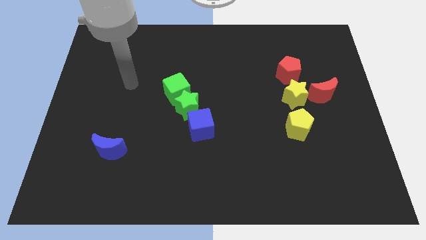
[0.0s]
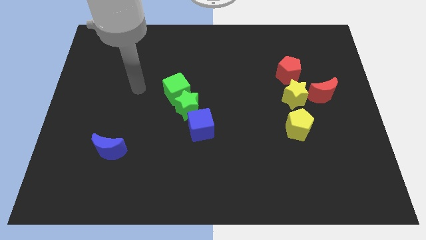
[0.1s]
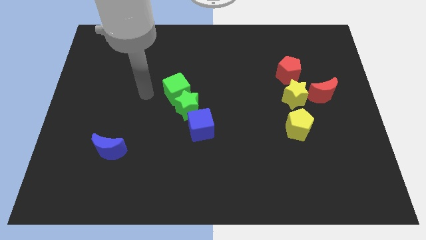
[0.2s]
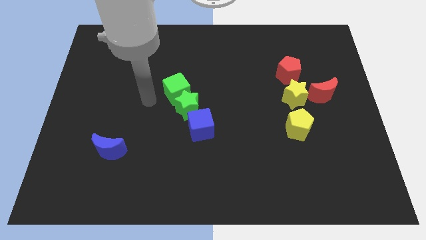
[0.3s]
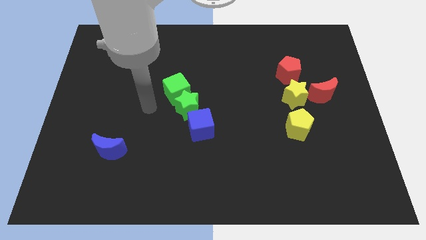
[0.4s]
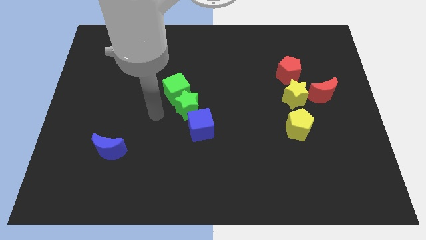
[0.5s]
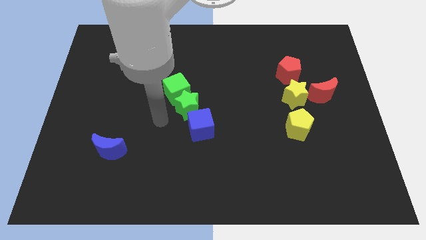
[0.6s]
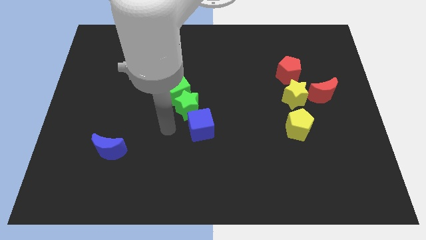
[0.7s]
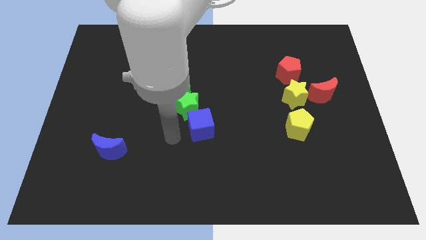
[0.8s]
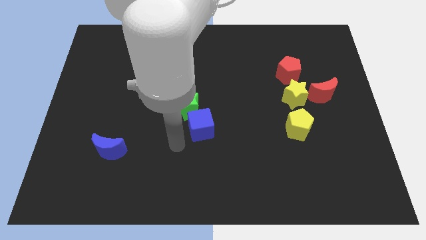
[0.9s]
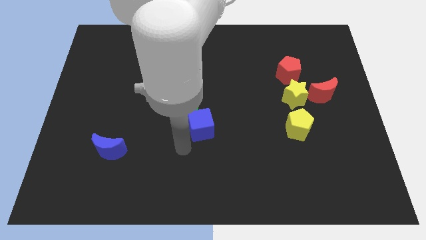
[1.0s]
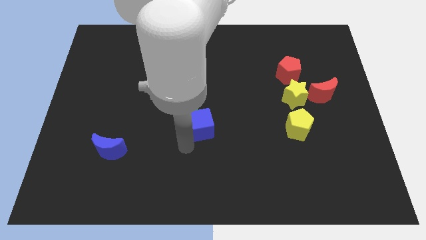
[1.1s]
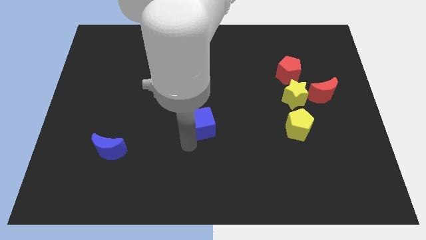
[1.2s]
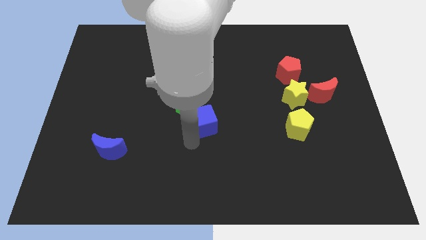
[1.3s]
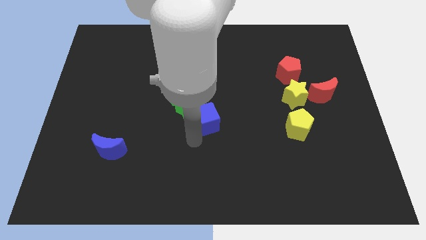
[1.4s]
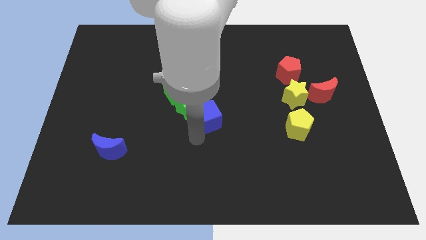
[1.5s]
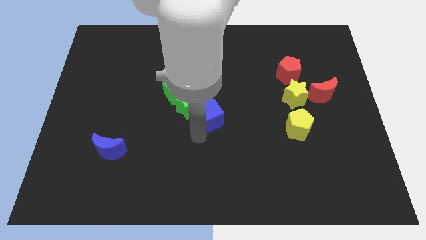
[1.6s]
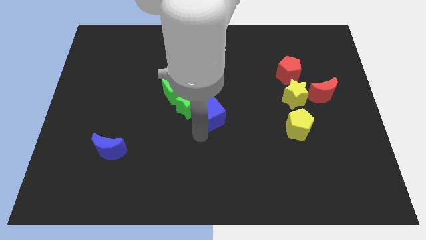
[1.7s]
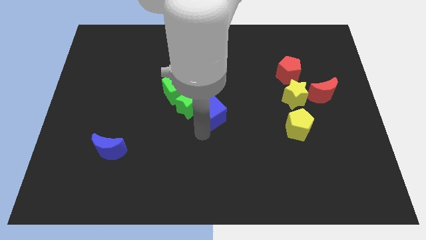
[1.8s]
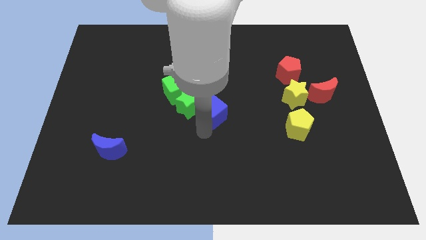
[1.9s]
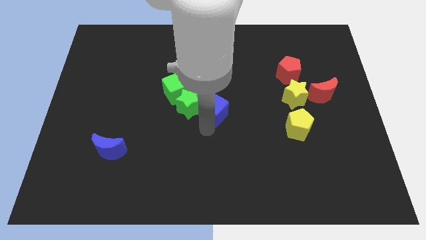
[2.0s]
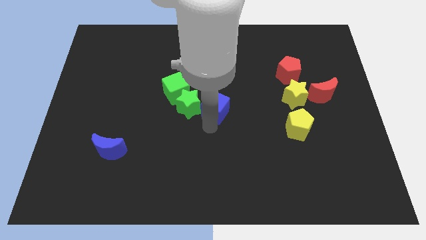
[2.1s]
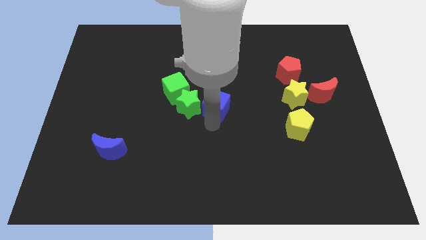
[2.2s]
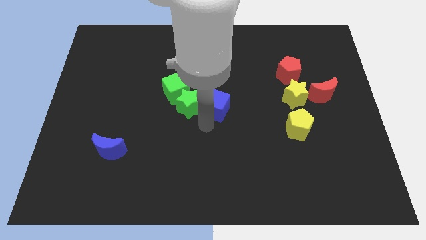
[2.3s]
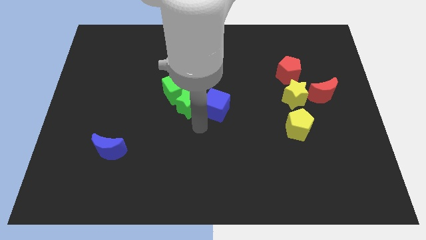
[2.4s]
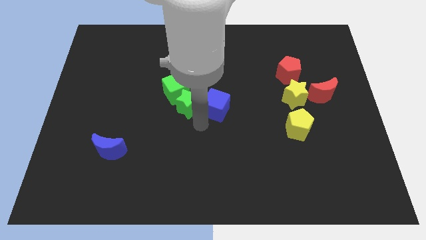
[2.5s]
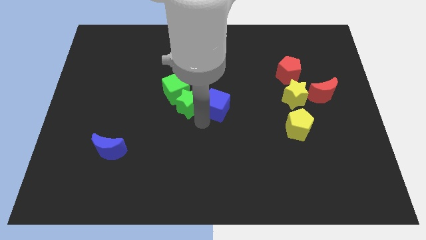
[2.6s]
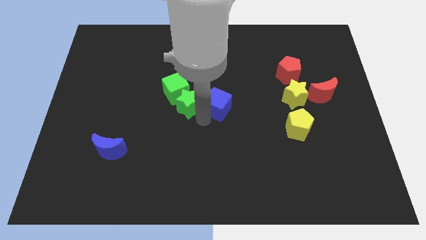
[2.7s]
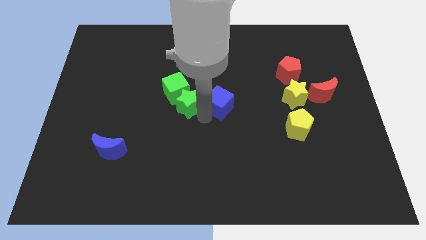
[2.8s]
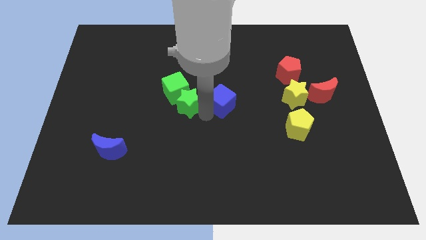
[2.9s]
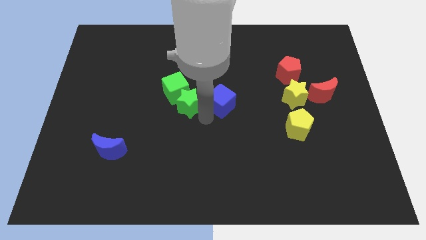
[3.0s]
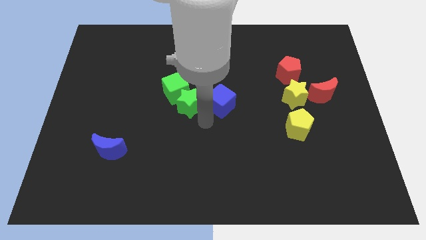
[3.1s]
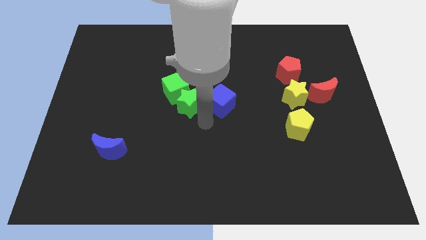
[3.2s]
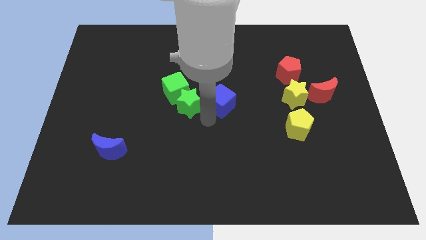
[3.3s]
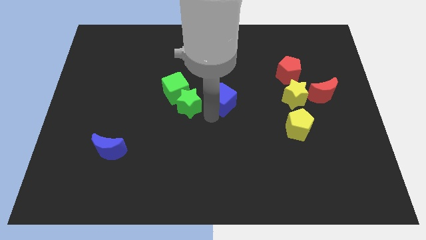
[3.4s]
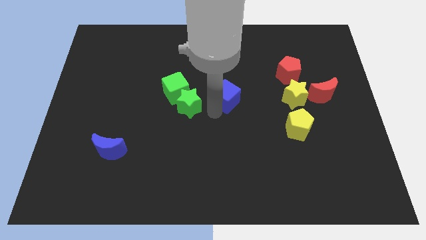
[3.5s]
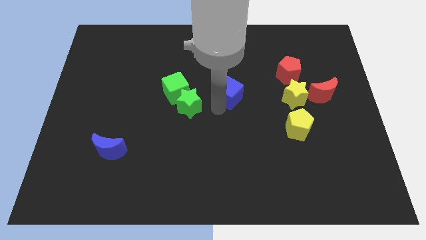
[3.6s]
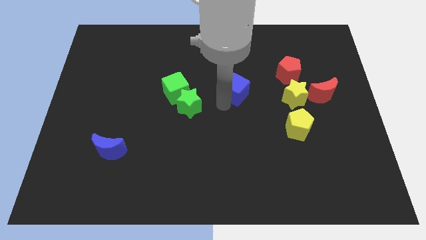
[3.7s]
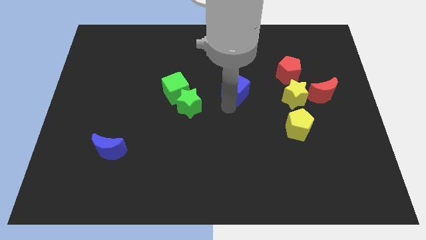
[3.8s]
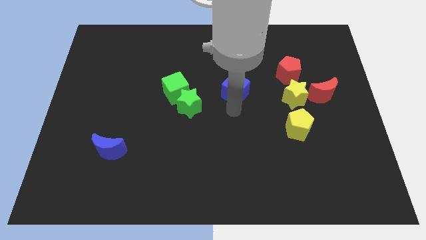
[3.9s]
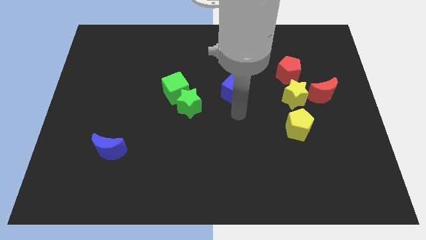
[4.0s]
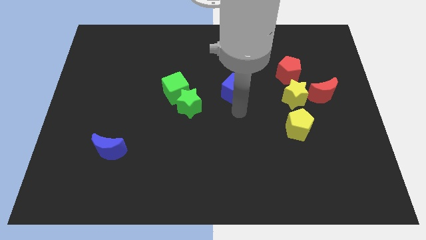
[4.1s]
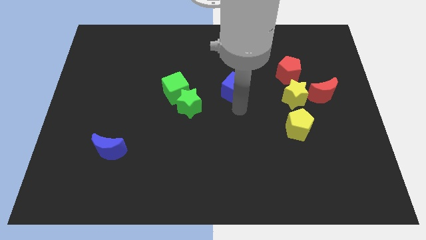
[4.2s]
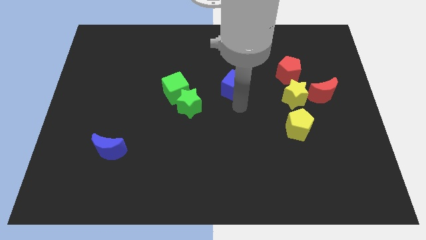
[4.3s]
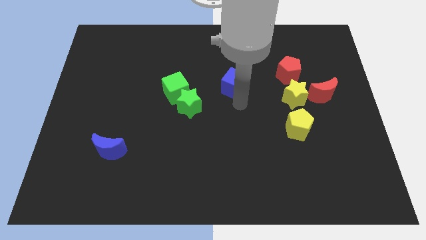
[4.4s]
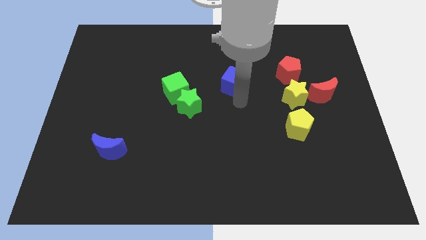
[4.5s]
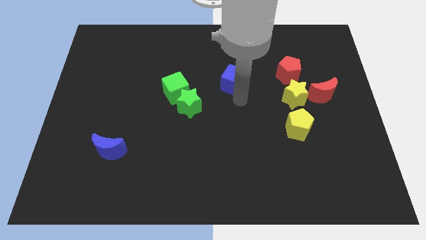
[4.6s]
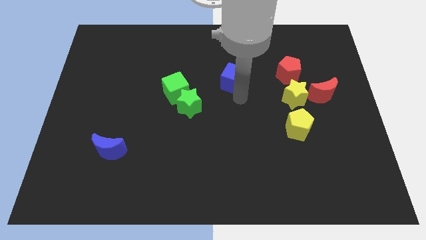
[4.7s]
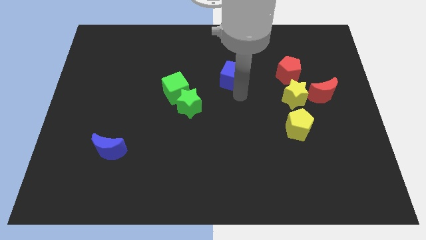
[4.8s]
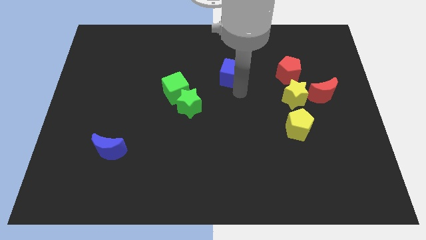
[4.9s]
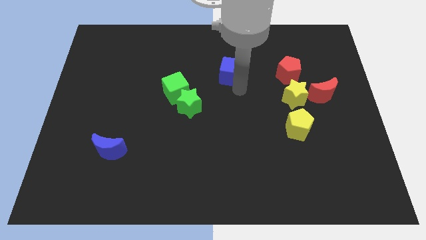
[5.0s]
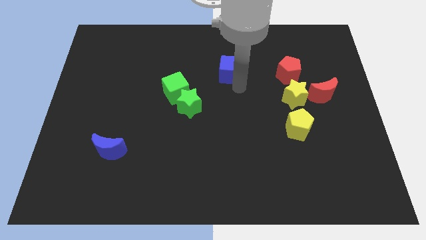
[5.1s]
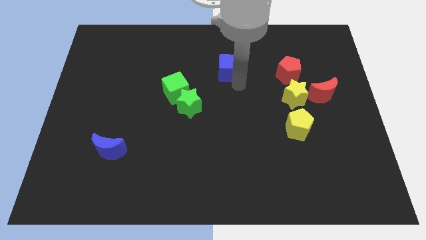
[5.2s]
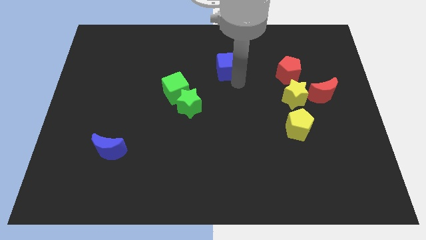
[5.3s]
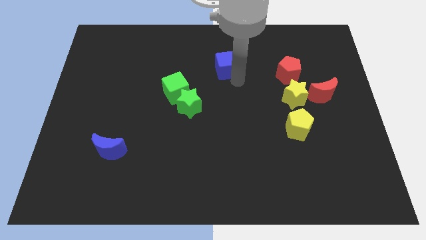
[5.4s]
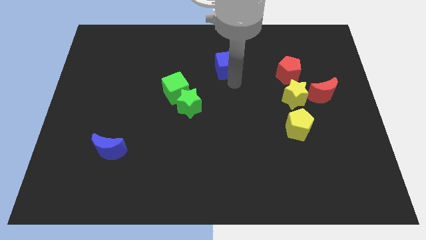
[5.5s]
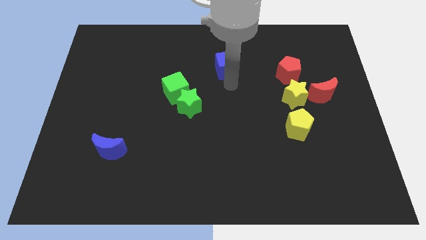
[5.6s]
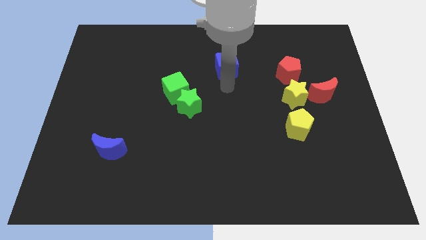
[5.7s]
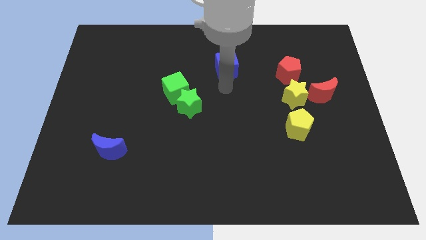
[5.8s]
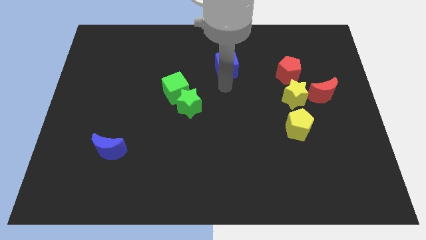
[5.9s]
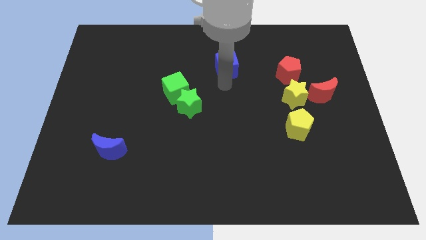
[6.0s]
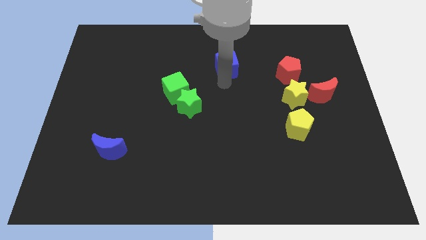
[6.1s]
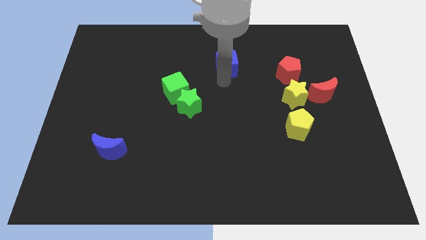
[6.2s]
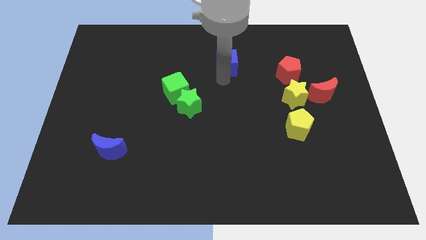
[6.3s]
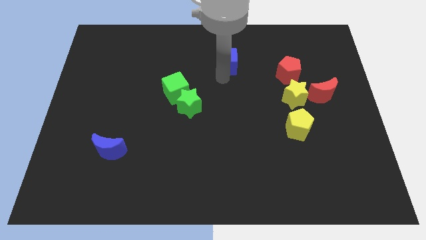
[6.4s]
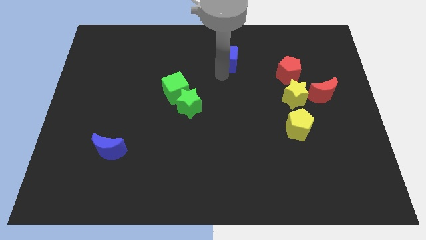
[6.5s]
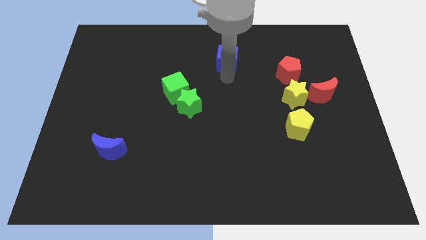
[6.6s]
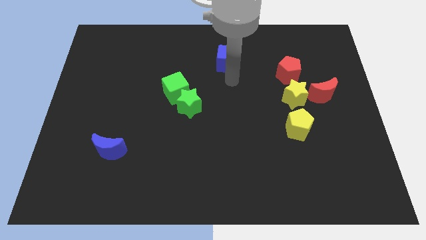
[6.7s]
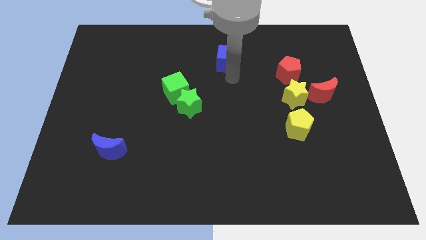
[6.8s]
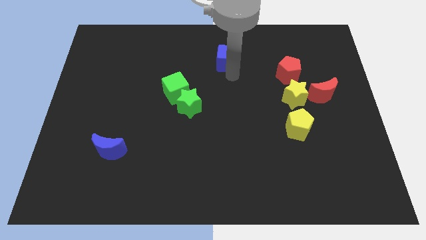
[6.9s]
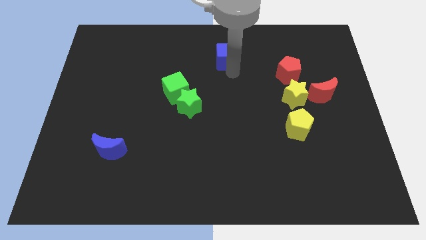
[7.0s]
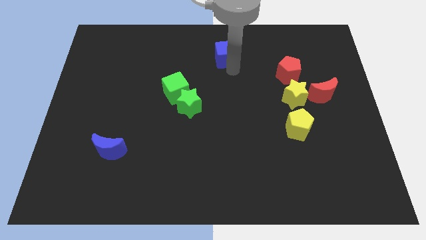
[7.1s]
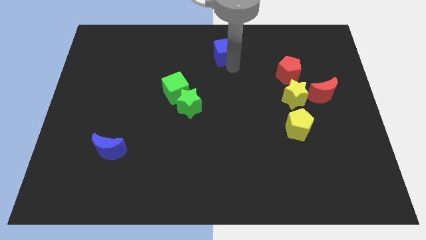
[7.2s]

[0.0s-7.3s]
move the blue cube to the top
